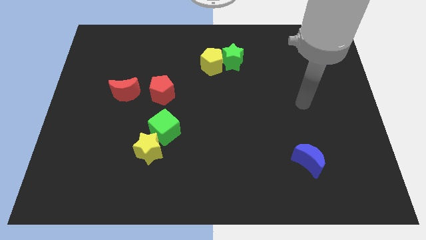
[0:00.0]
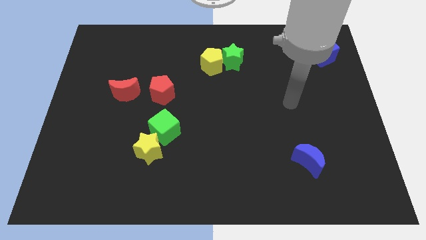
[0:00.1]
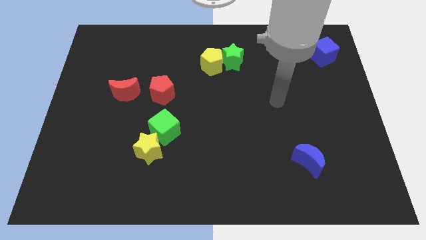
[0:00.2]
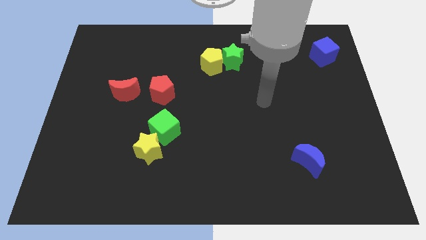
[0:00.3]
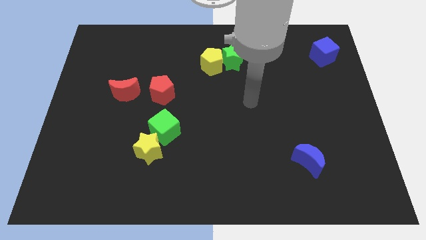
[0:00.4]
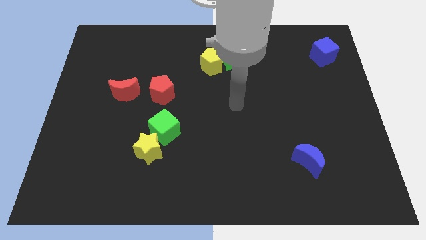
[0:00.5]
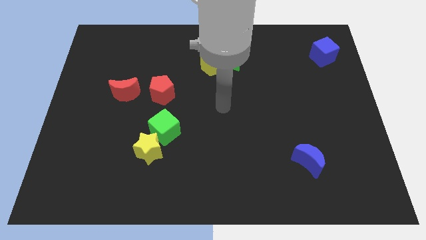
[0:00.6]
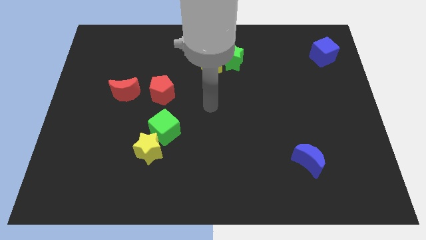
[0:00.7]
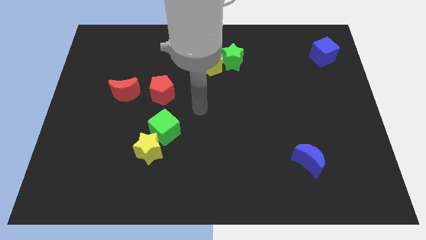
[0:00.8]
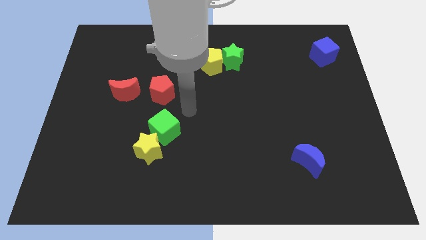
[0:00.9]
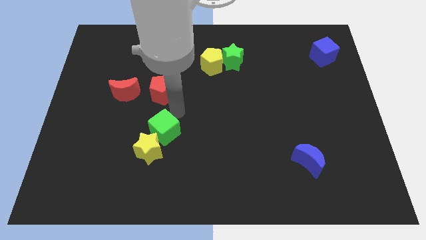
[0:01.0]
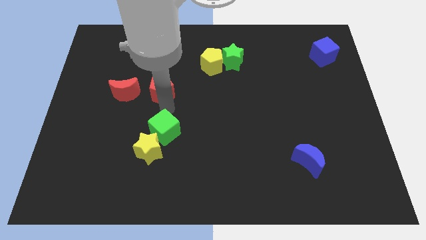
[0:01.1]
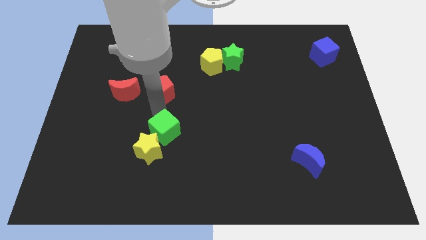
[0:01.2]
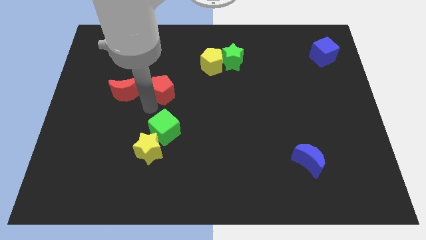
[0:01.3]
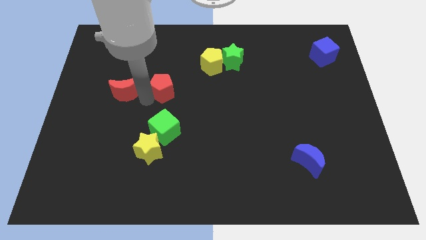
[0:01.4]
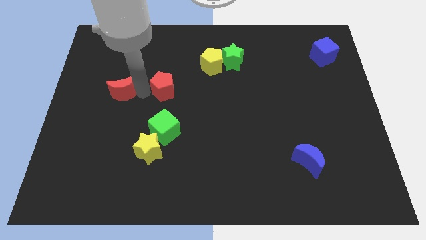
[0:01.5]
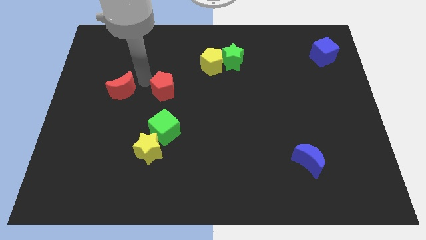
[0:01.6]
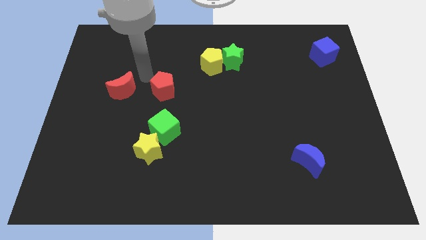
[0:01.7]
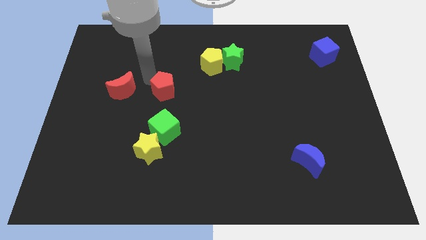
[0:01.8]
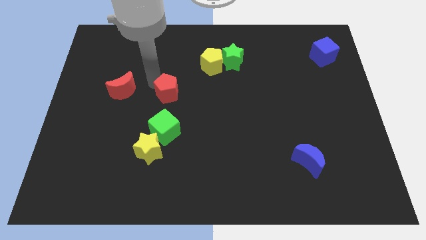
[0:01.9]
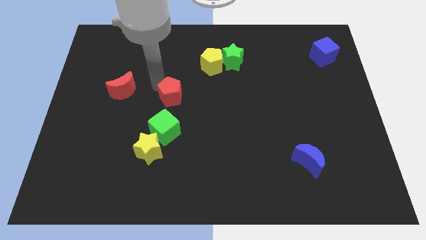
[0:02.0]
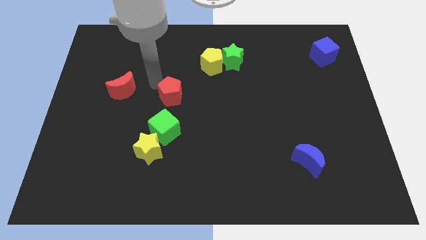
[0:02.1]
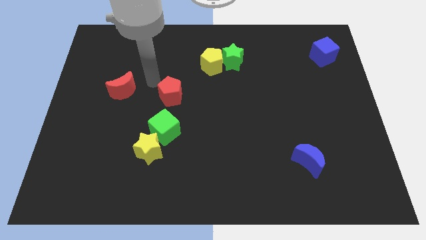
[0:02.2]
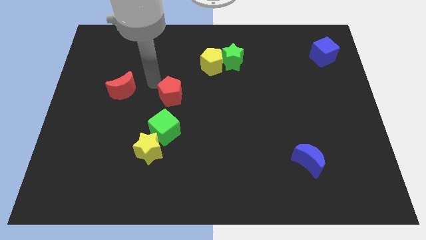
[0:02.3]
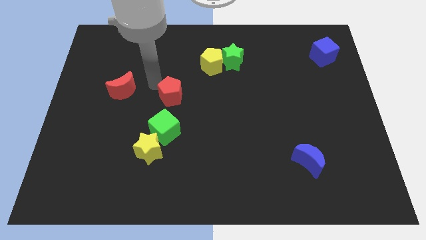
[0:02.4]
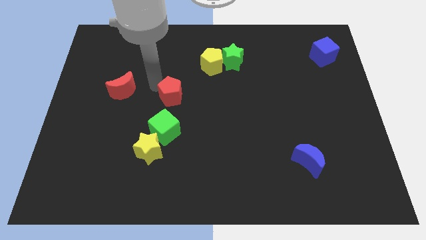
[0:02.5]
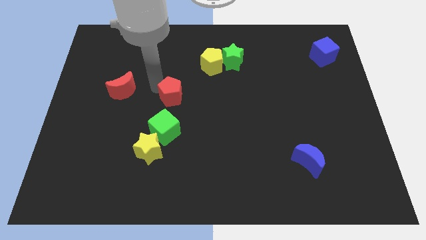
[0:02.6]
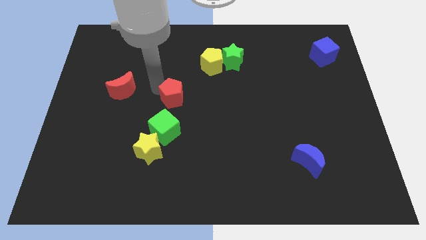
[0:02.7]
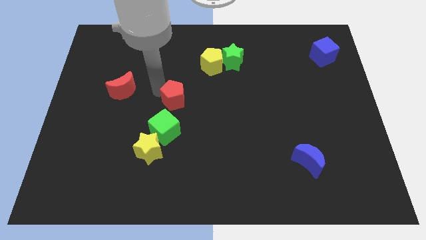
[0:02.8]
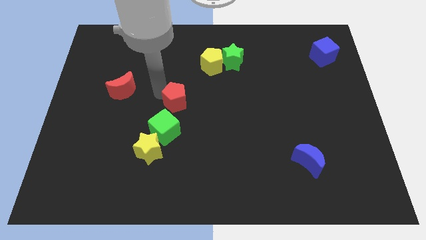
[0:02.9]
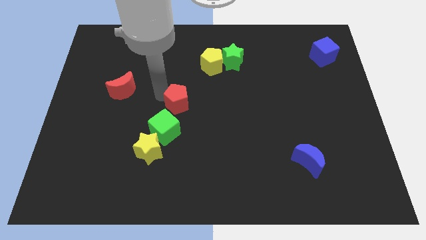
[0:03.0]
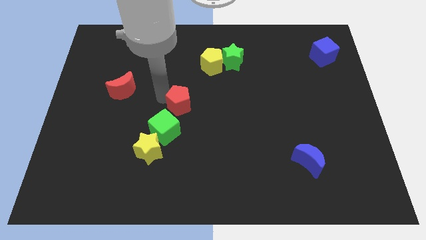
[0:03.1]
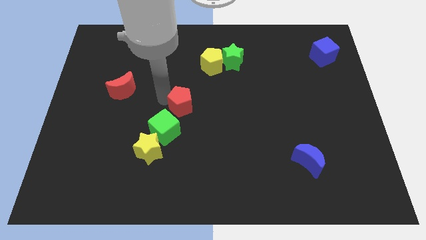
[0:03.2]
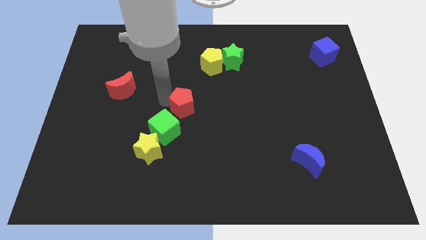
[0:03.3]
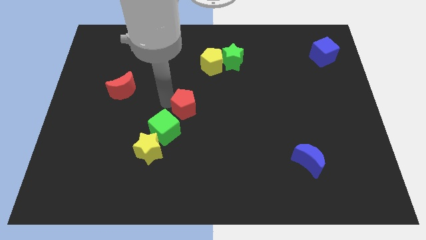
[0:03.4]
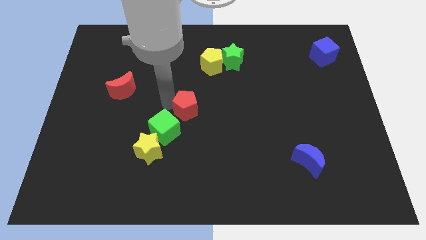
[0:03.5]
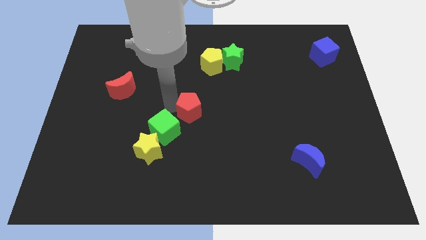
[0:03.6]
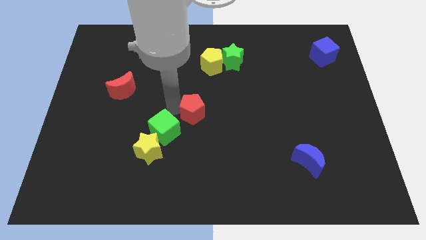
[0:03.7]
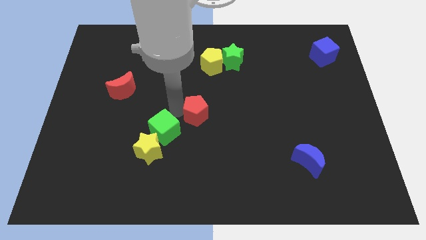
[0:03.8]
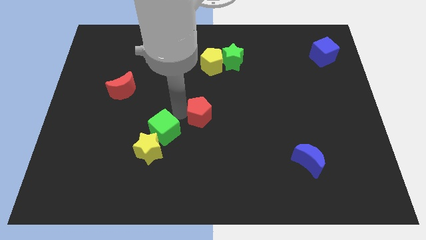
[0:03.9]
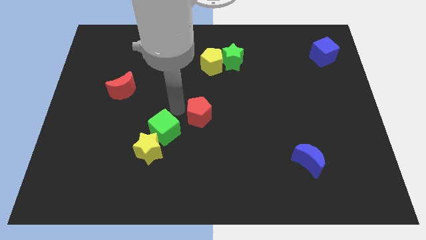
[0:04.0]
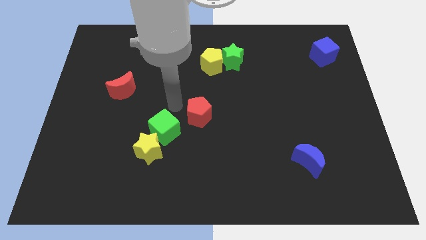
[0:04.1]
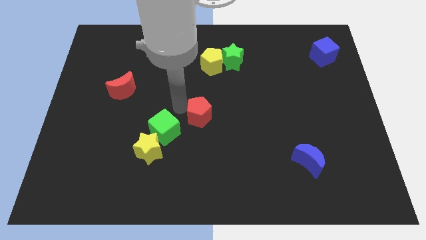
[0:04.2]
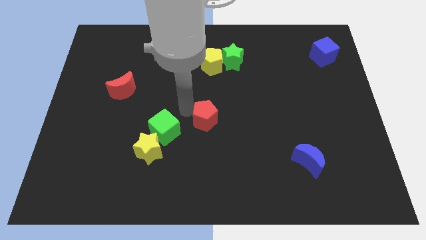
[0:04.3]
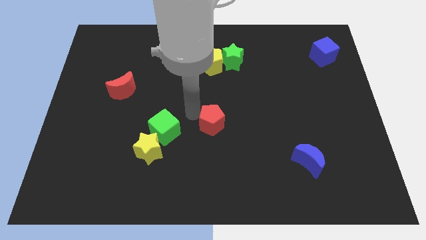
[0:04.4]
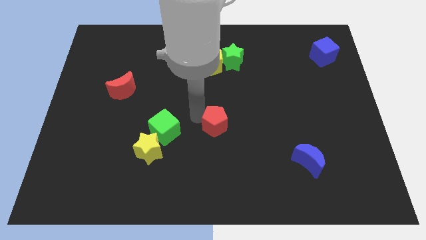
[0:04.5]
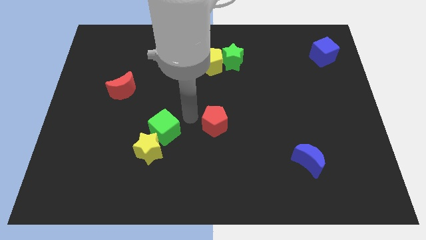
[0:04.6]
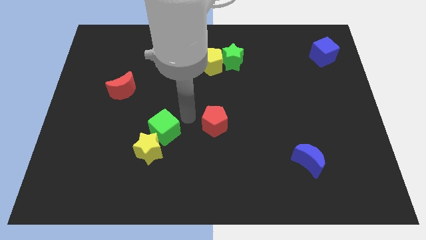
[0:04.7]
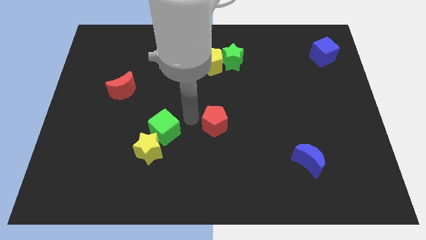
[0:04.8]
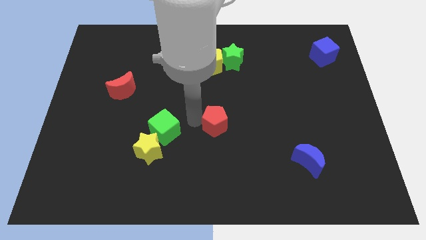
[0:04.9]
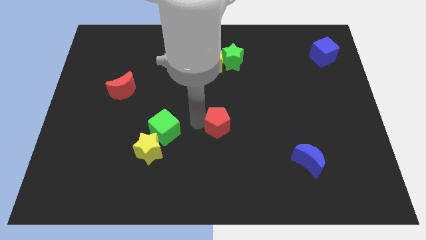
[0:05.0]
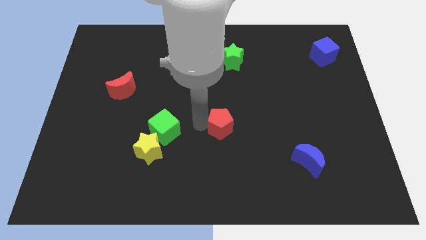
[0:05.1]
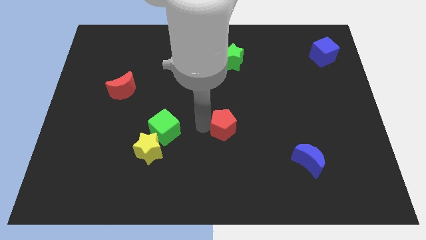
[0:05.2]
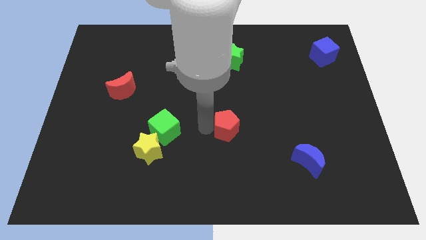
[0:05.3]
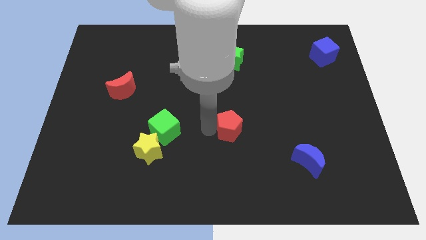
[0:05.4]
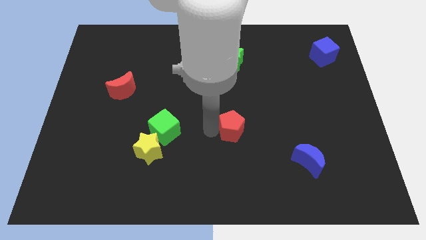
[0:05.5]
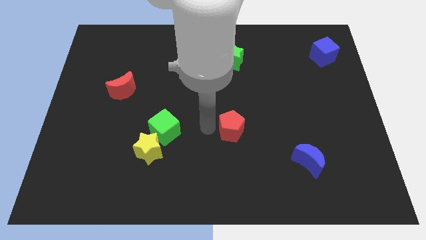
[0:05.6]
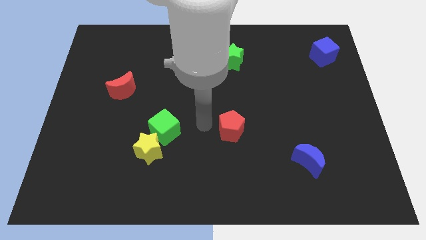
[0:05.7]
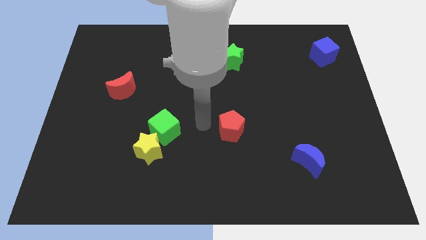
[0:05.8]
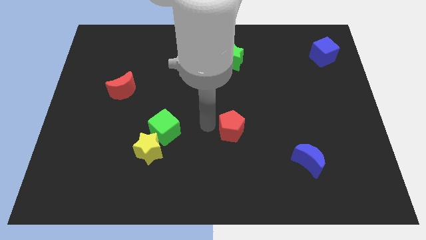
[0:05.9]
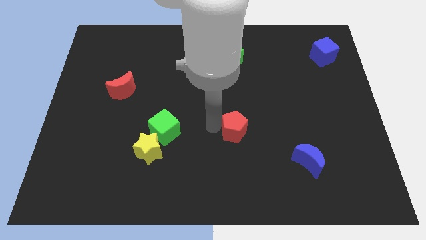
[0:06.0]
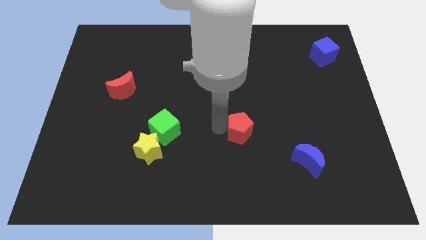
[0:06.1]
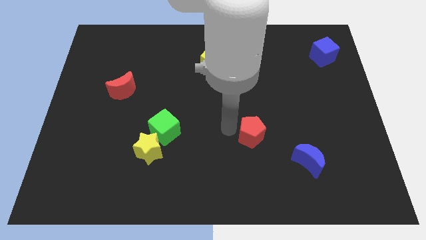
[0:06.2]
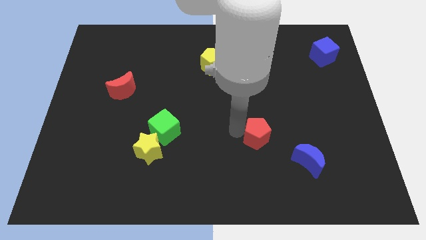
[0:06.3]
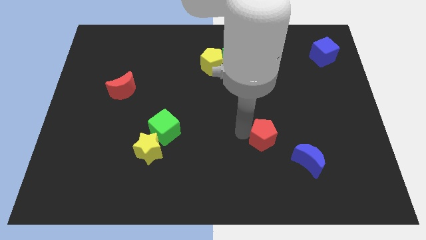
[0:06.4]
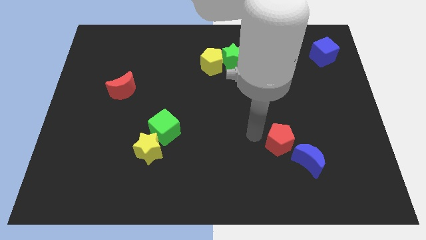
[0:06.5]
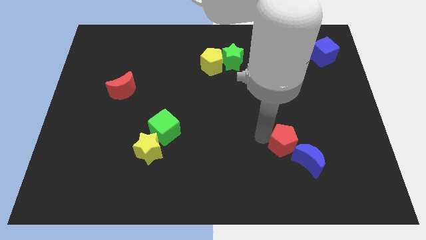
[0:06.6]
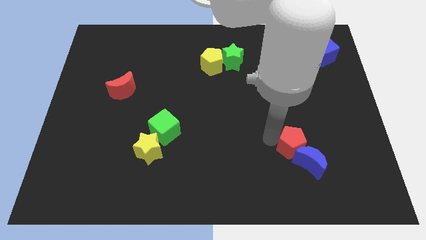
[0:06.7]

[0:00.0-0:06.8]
slide the red pentagon towards the blue moon

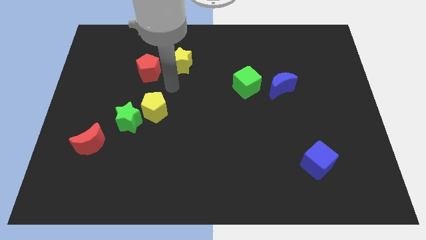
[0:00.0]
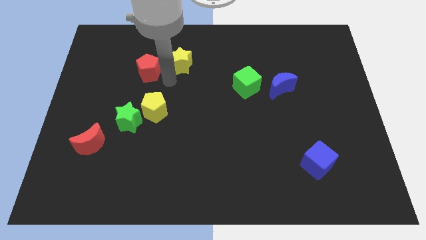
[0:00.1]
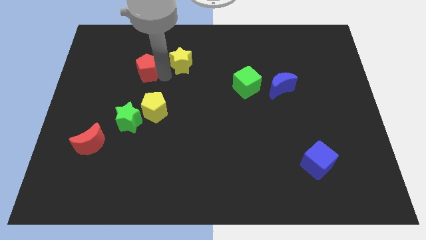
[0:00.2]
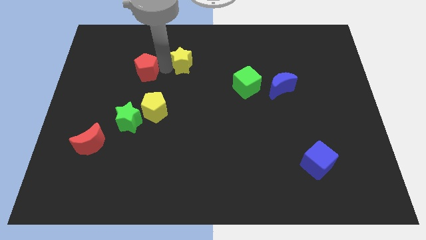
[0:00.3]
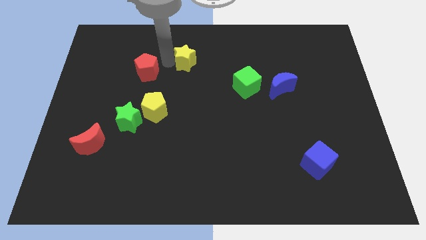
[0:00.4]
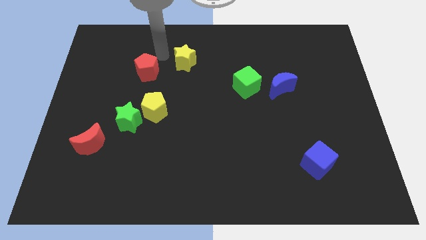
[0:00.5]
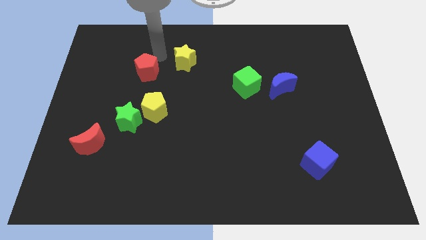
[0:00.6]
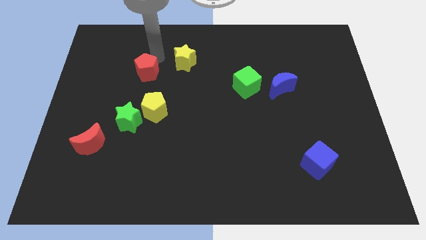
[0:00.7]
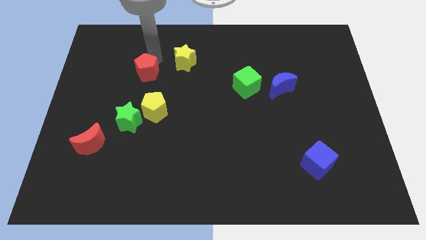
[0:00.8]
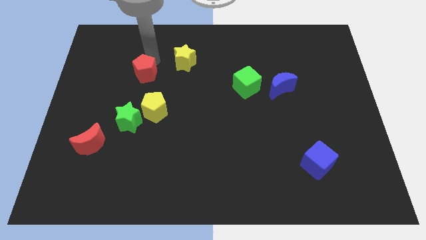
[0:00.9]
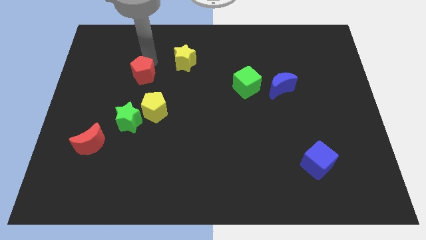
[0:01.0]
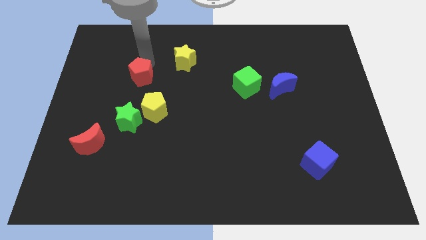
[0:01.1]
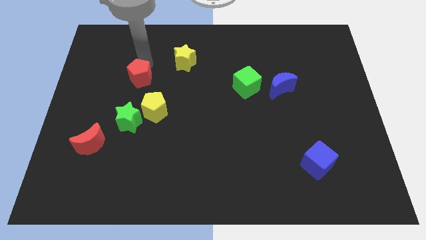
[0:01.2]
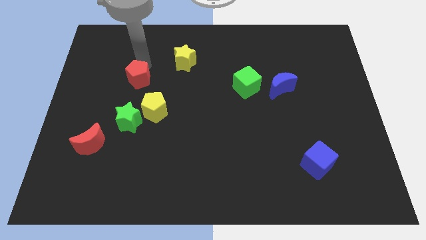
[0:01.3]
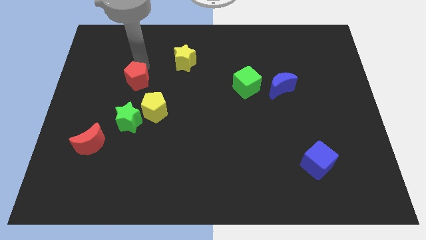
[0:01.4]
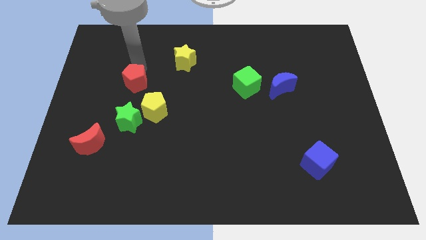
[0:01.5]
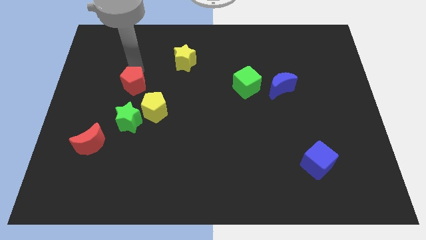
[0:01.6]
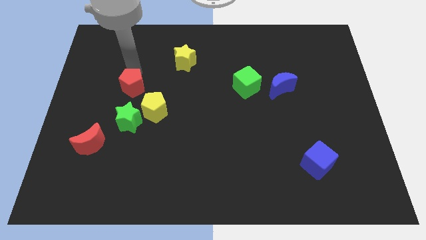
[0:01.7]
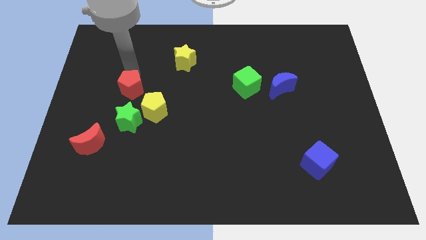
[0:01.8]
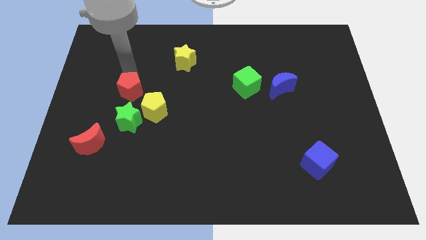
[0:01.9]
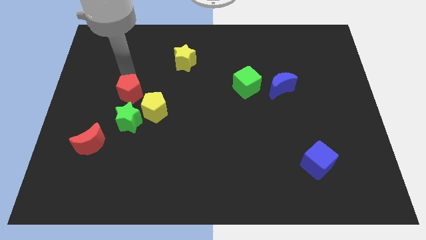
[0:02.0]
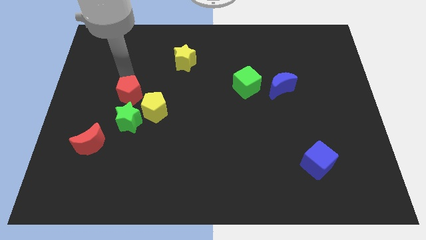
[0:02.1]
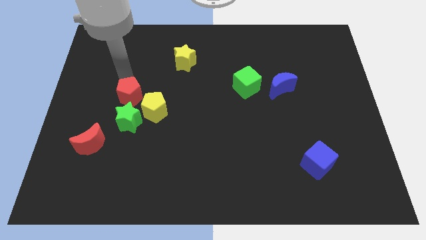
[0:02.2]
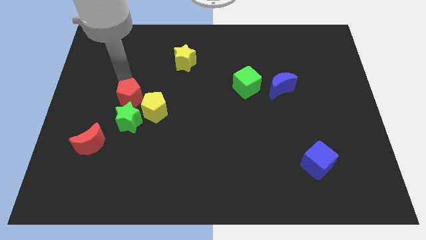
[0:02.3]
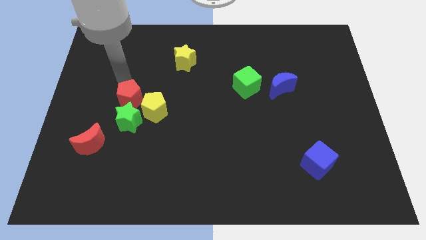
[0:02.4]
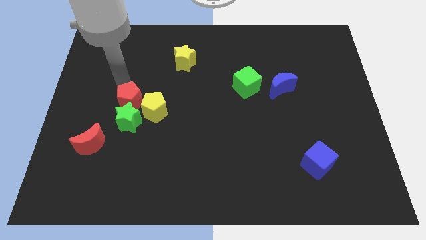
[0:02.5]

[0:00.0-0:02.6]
push the red pentagon next to the green star
